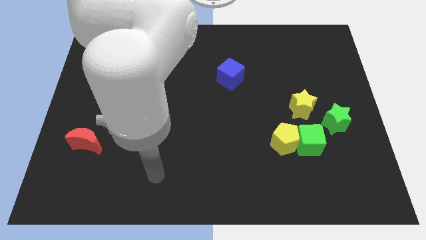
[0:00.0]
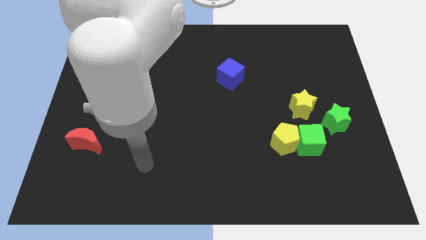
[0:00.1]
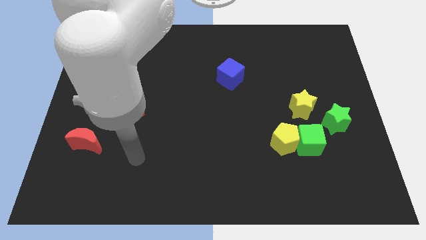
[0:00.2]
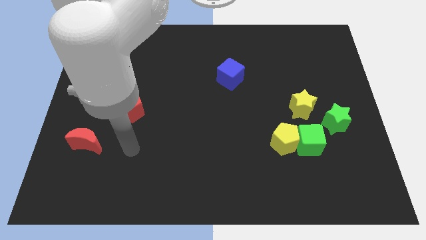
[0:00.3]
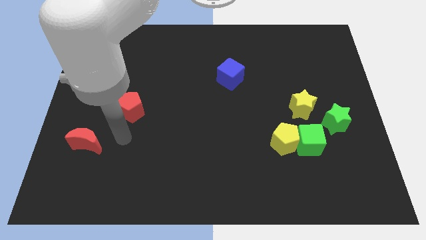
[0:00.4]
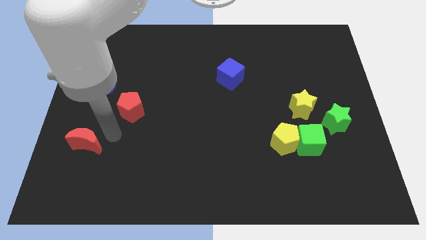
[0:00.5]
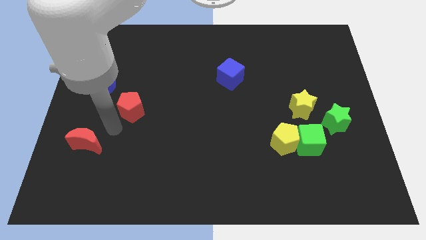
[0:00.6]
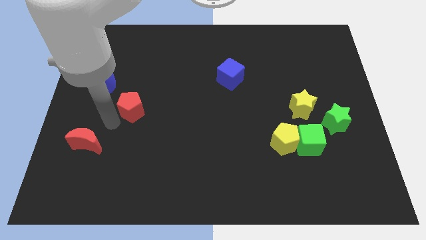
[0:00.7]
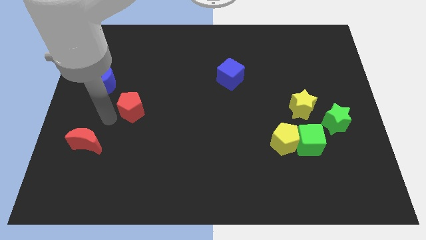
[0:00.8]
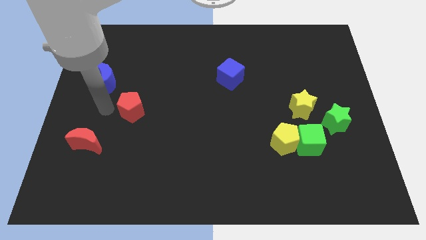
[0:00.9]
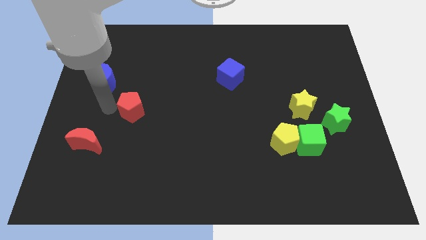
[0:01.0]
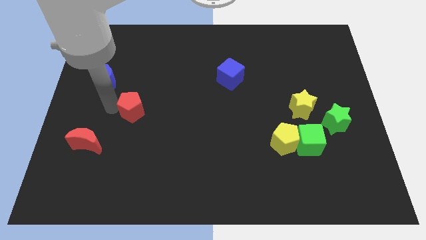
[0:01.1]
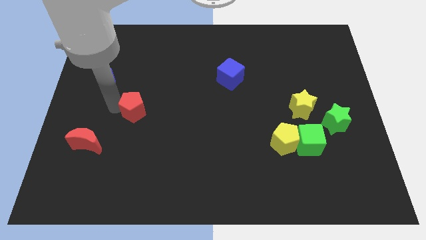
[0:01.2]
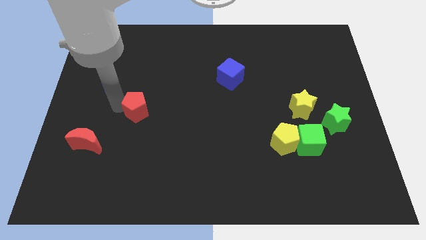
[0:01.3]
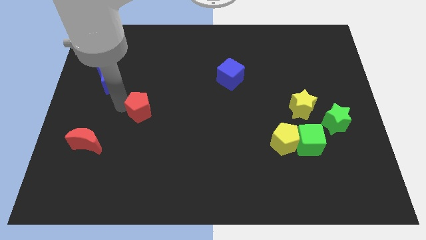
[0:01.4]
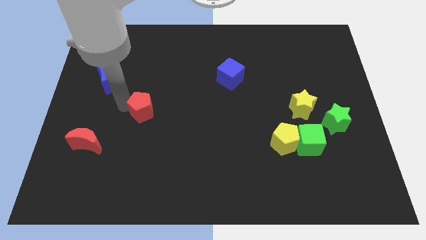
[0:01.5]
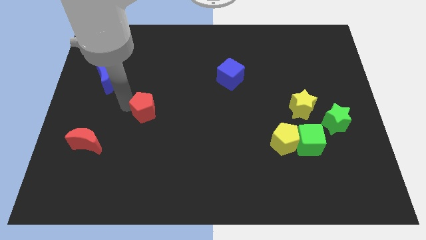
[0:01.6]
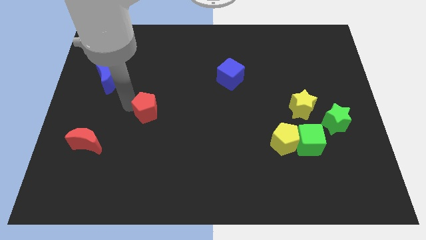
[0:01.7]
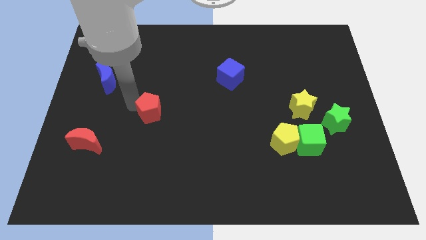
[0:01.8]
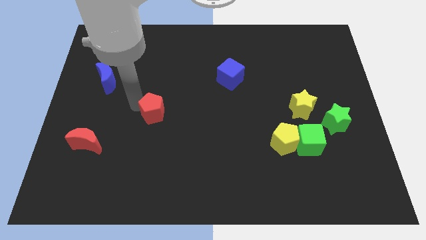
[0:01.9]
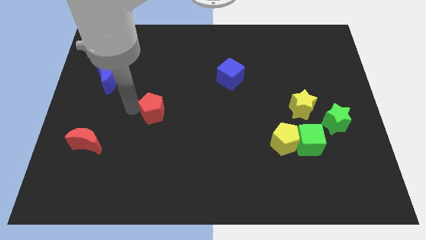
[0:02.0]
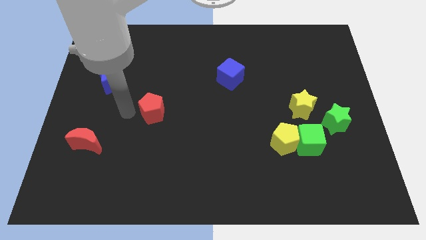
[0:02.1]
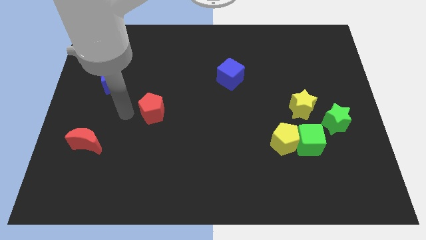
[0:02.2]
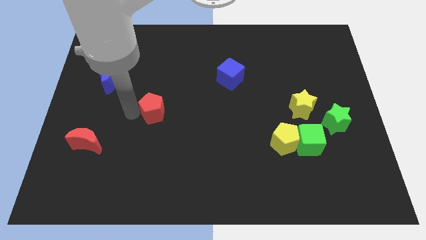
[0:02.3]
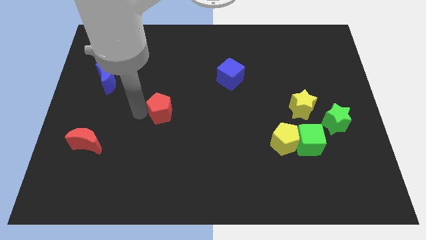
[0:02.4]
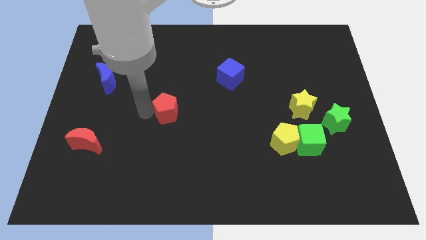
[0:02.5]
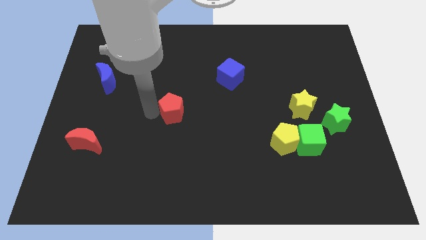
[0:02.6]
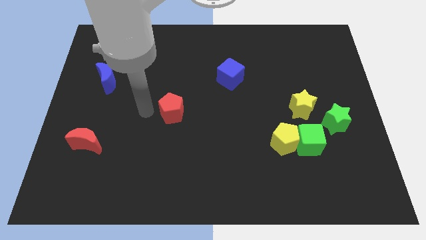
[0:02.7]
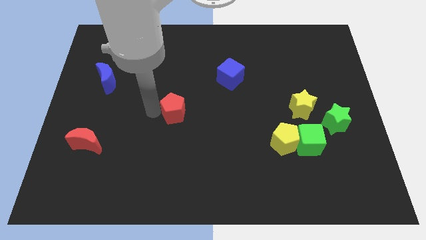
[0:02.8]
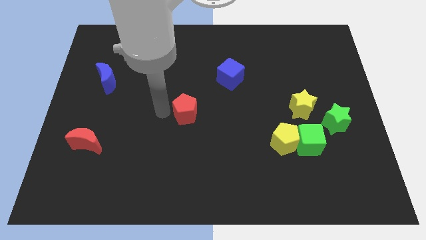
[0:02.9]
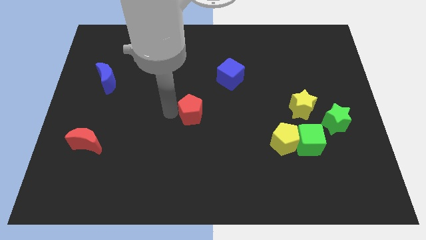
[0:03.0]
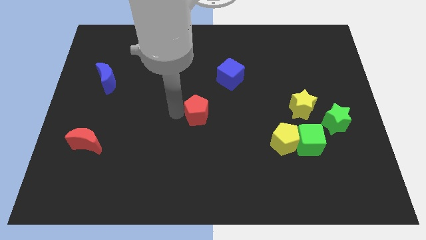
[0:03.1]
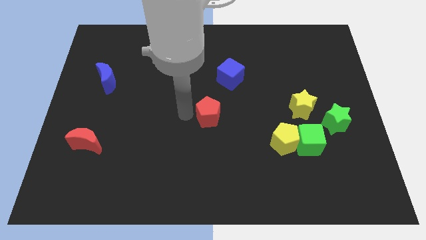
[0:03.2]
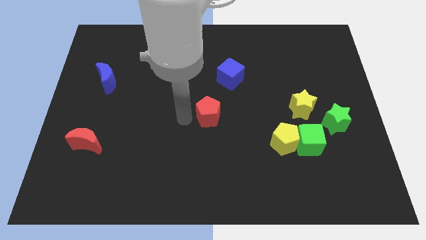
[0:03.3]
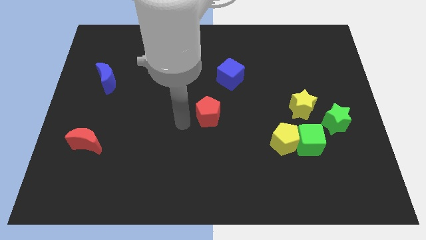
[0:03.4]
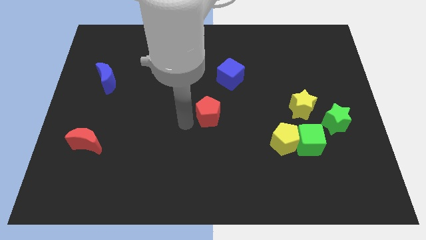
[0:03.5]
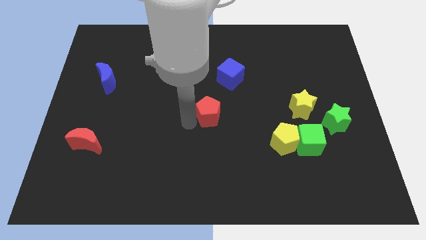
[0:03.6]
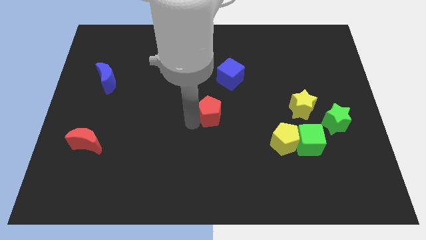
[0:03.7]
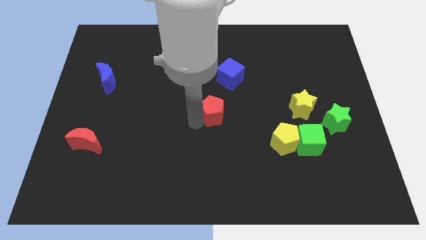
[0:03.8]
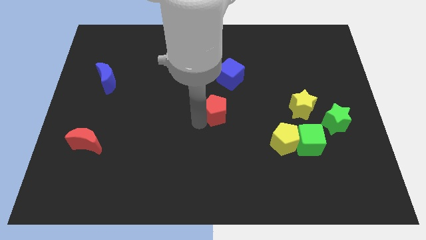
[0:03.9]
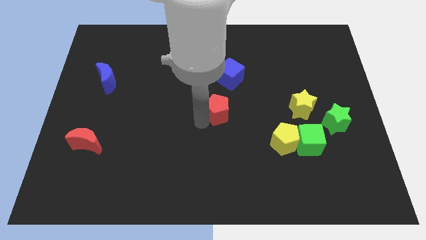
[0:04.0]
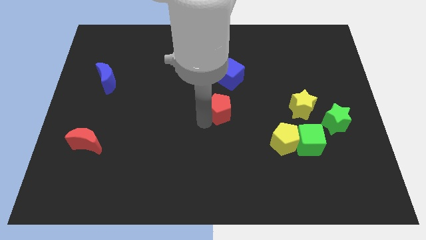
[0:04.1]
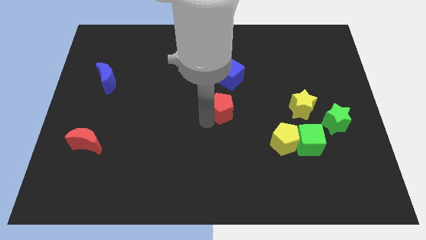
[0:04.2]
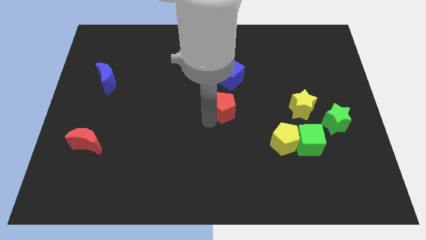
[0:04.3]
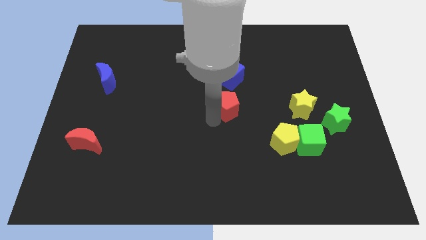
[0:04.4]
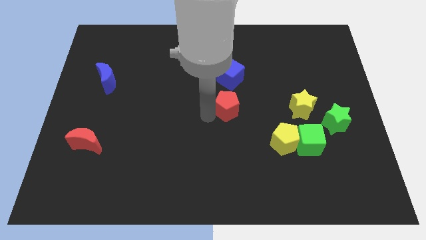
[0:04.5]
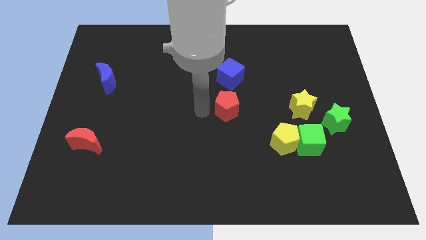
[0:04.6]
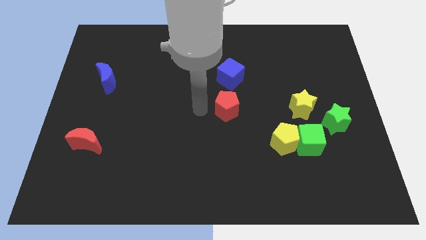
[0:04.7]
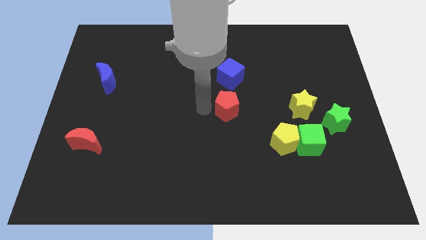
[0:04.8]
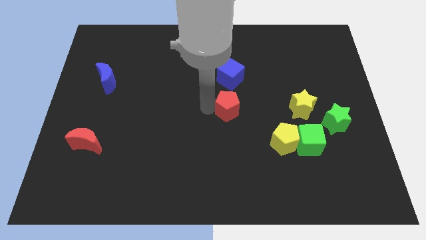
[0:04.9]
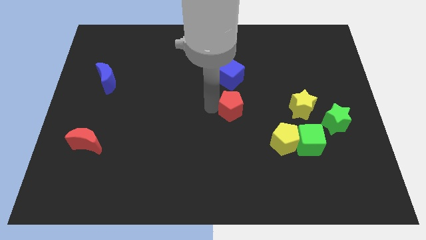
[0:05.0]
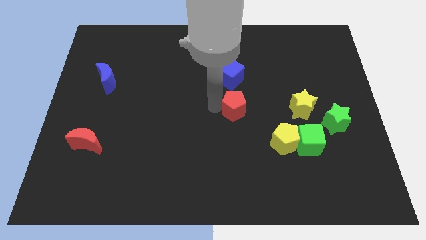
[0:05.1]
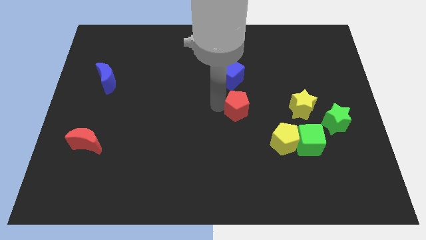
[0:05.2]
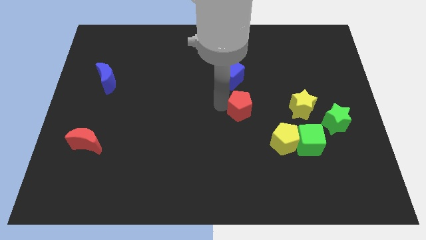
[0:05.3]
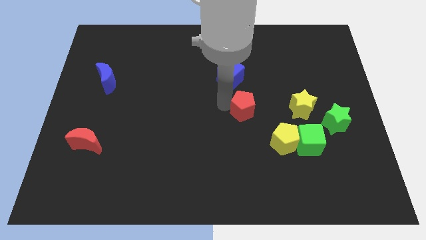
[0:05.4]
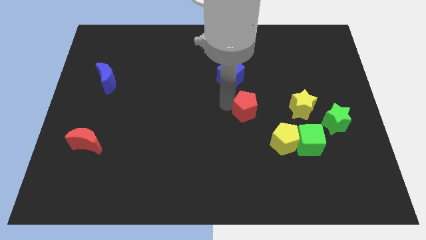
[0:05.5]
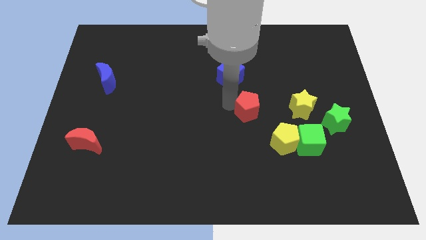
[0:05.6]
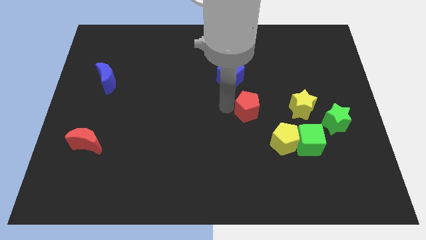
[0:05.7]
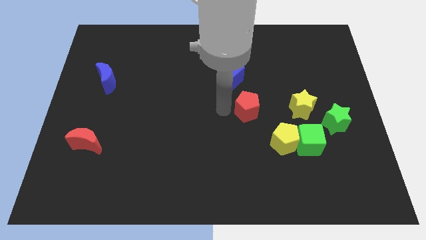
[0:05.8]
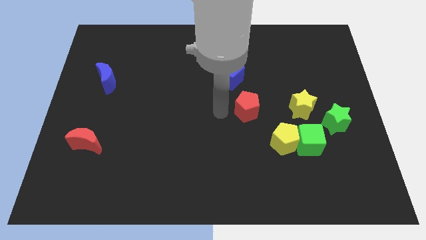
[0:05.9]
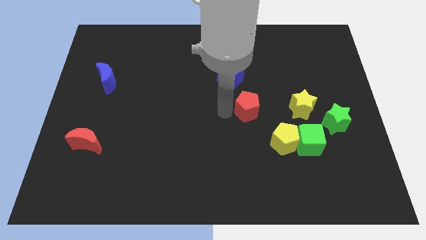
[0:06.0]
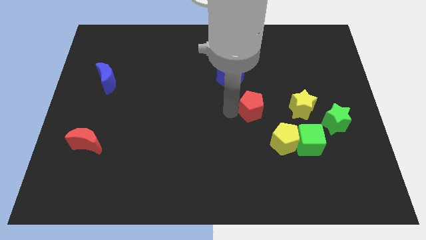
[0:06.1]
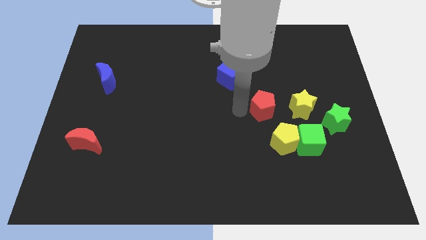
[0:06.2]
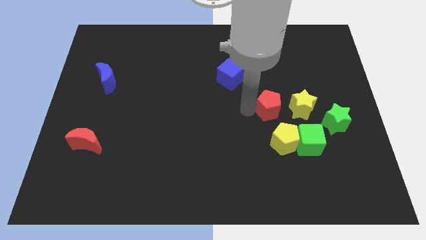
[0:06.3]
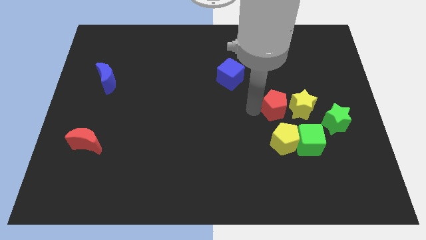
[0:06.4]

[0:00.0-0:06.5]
move the red pentagon close to the yellow star

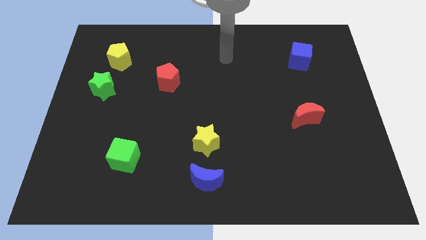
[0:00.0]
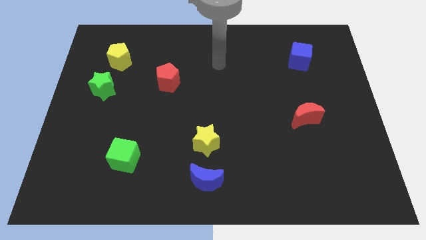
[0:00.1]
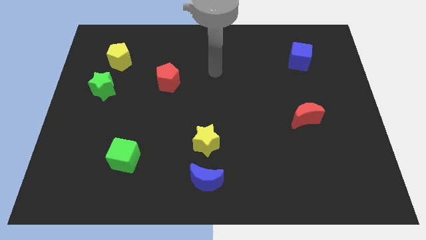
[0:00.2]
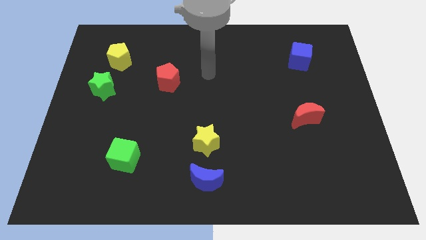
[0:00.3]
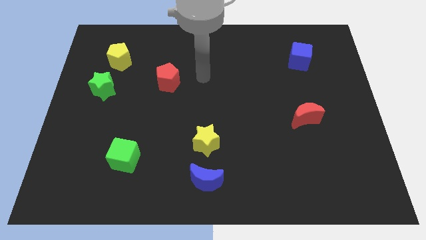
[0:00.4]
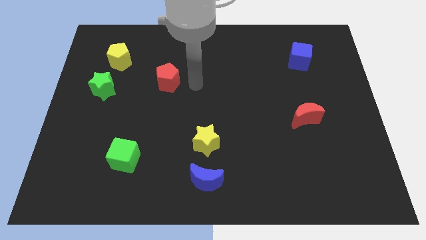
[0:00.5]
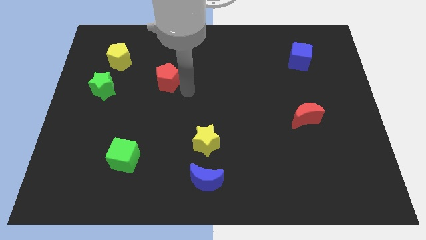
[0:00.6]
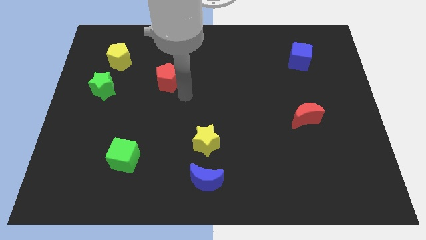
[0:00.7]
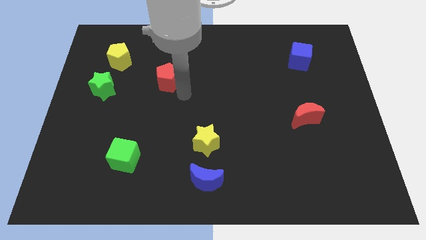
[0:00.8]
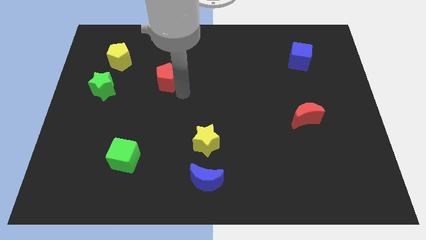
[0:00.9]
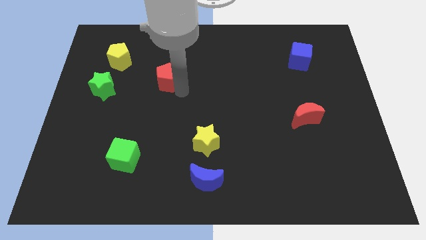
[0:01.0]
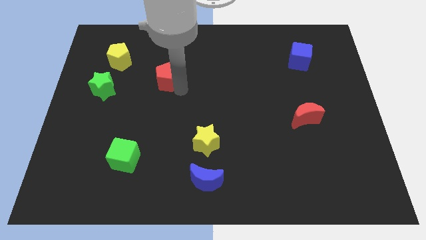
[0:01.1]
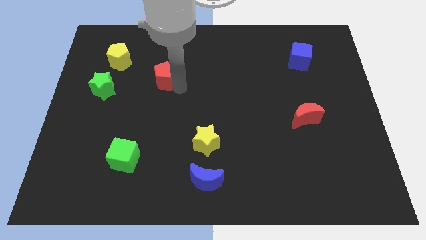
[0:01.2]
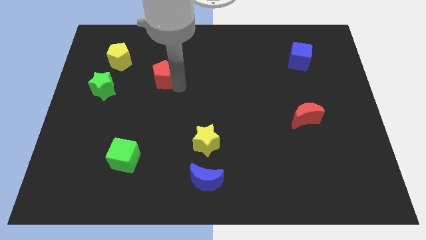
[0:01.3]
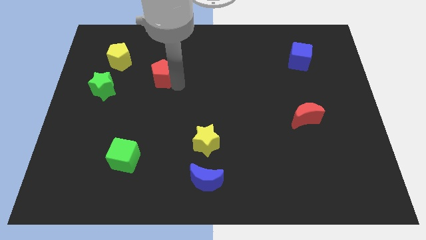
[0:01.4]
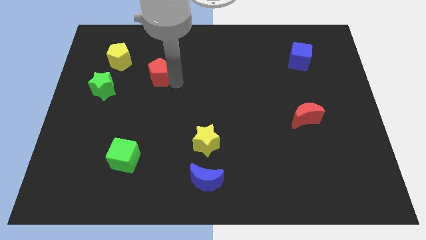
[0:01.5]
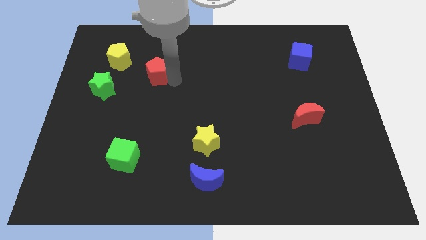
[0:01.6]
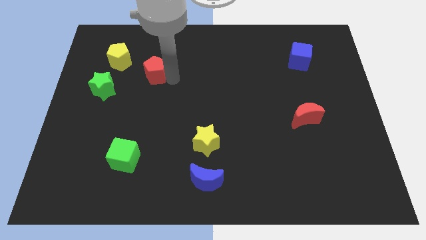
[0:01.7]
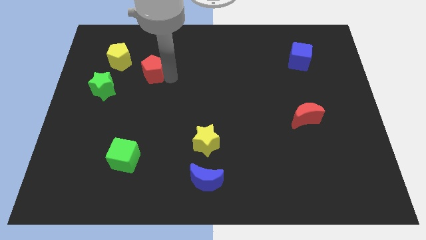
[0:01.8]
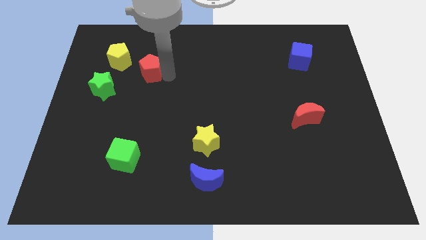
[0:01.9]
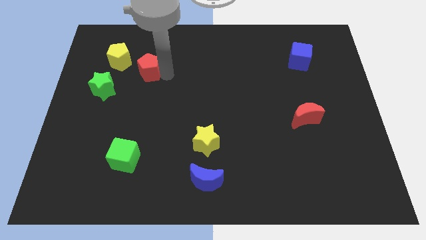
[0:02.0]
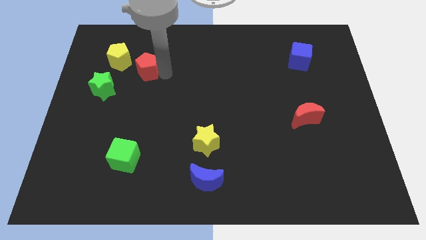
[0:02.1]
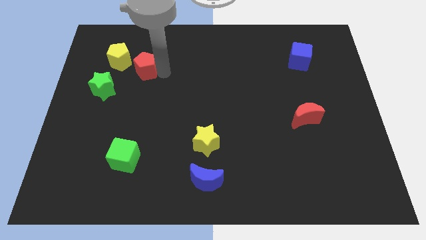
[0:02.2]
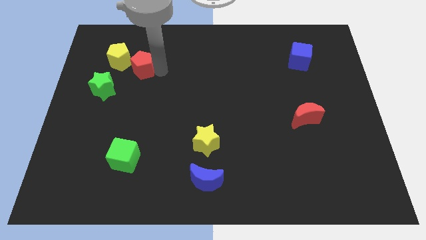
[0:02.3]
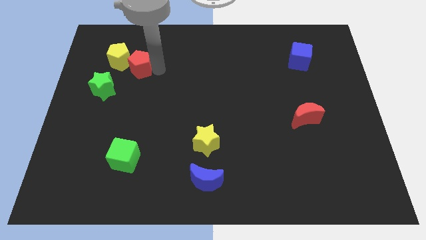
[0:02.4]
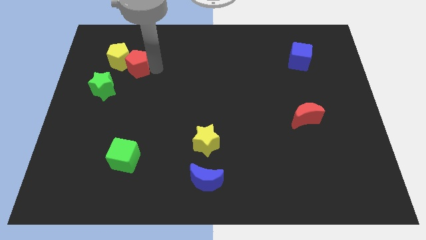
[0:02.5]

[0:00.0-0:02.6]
push the red pentagon to the yellow pentagon
